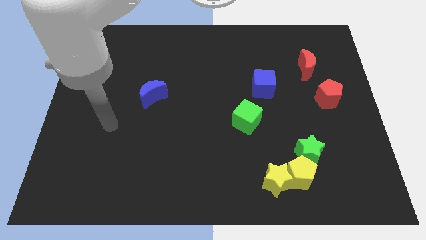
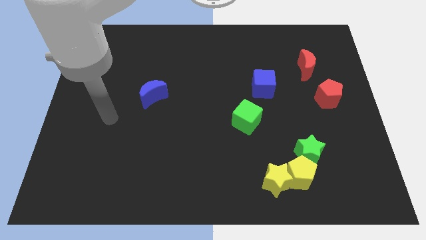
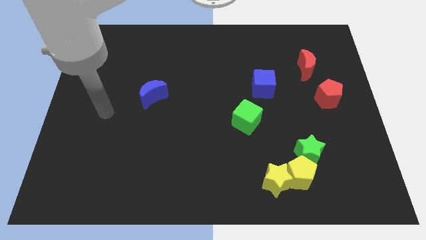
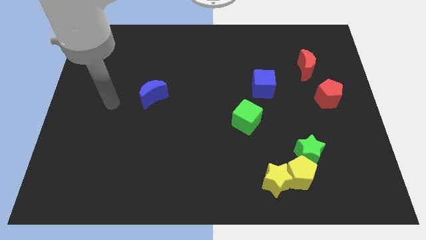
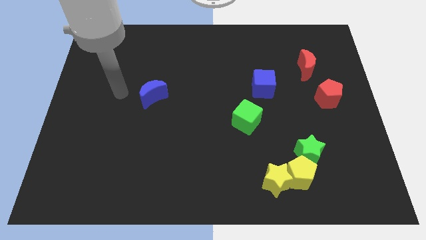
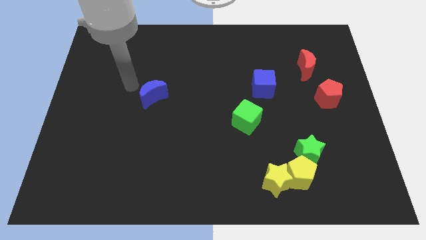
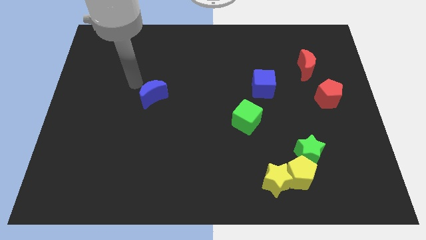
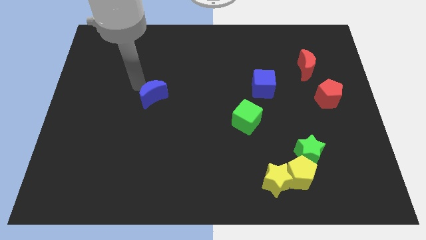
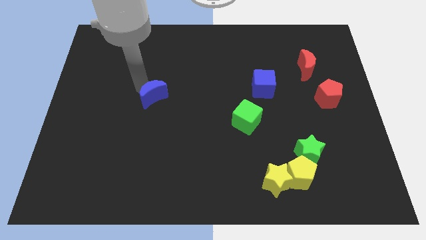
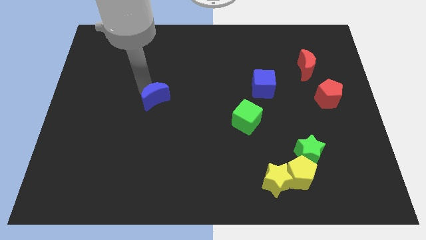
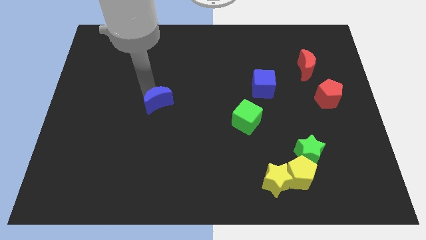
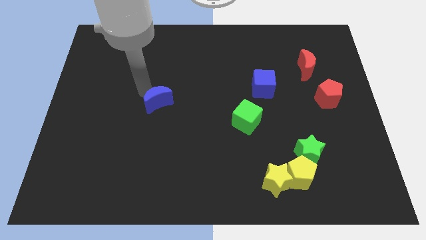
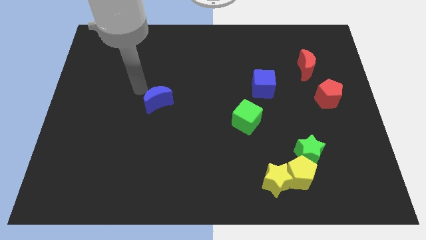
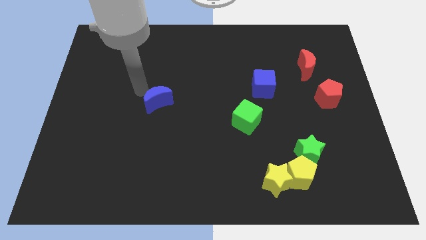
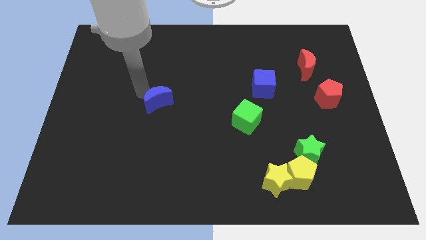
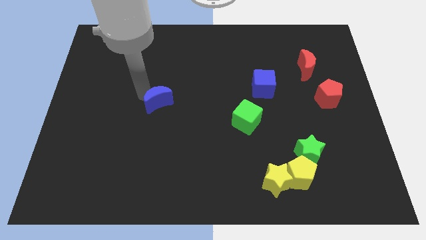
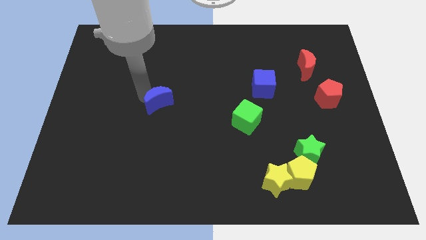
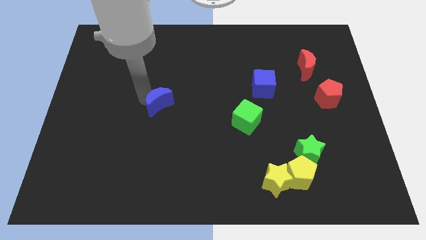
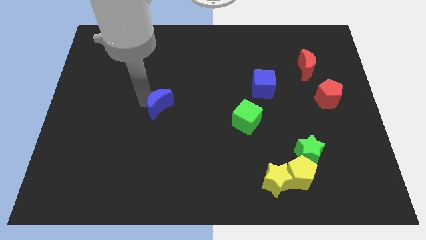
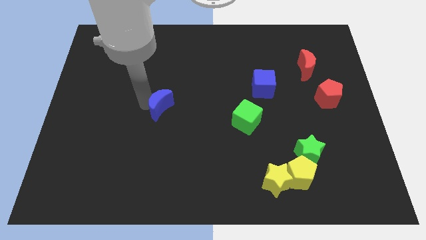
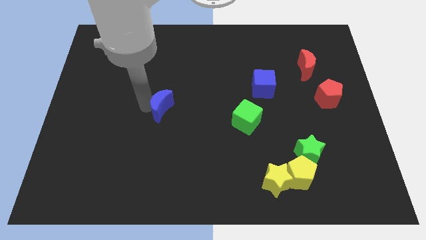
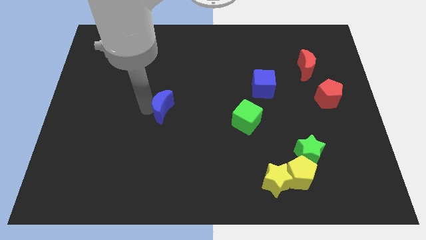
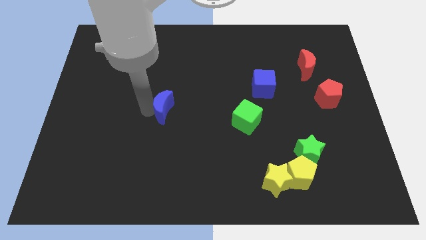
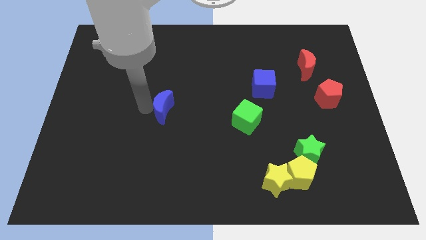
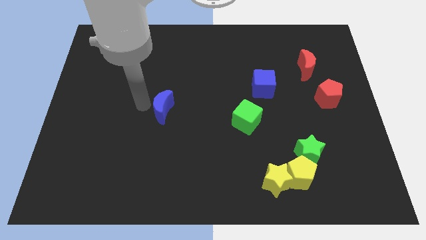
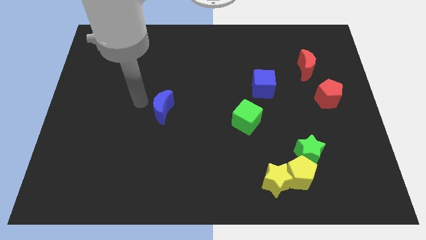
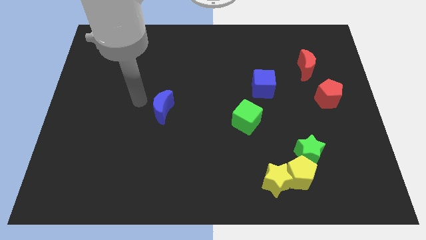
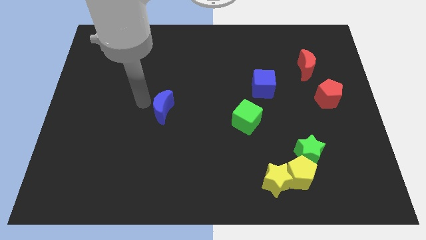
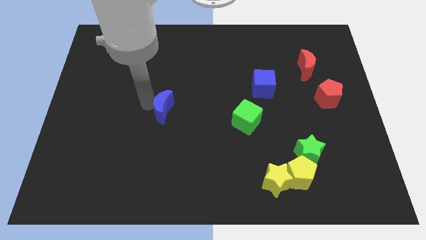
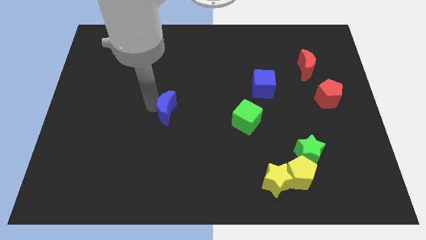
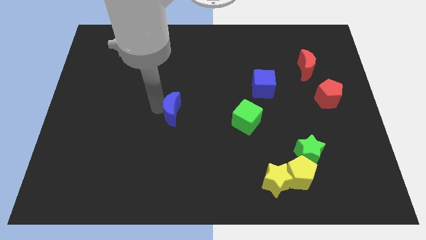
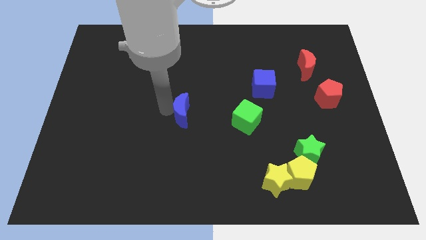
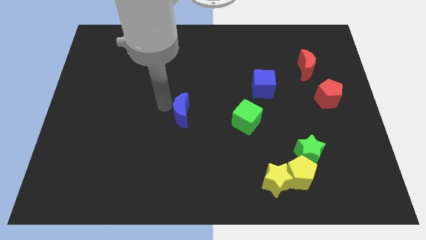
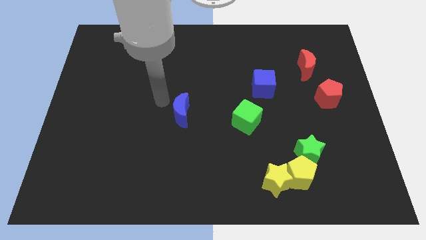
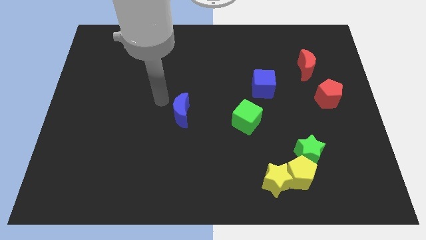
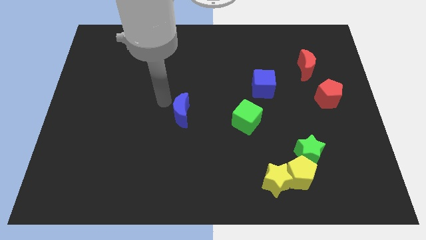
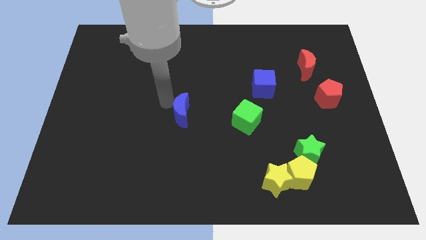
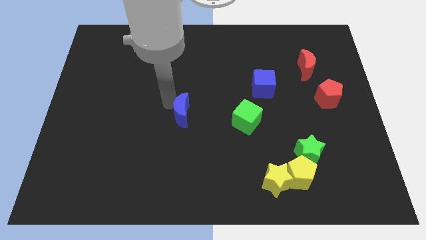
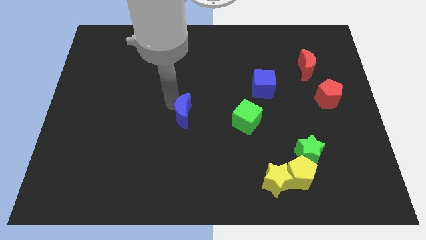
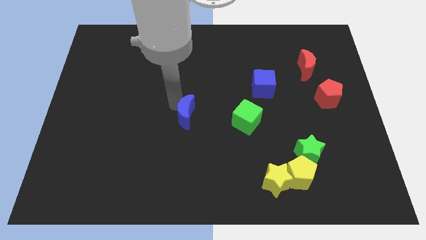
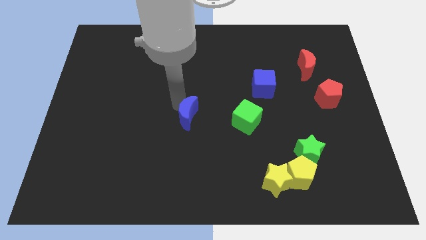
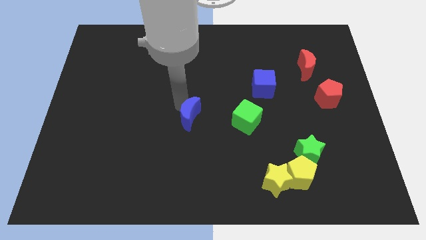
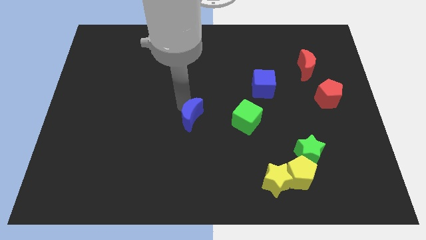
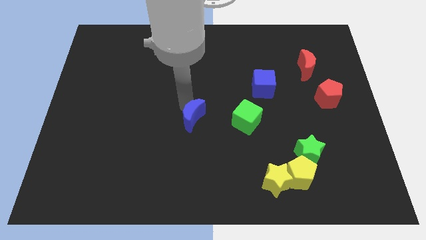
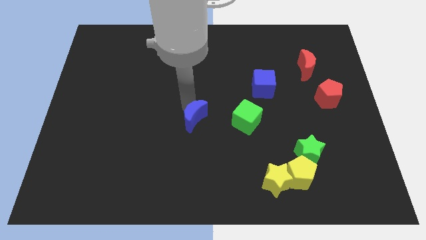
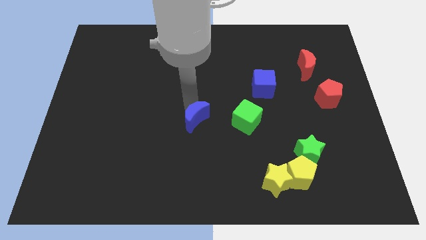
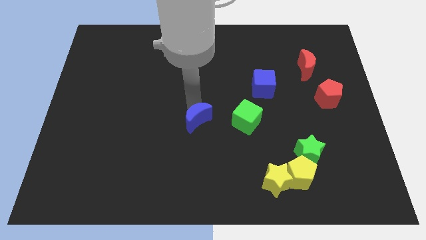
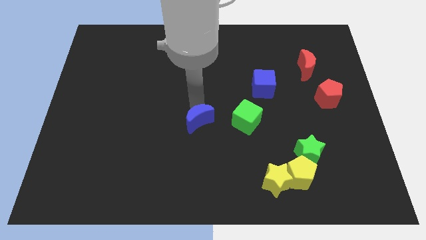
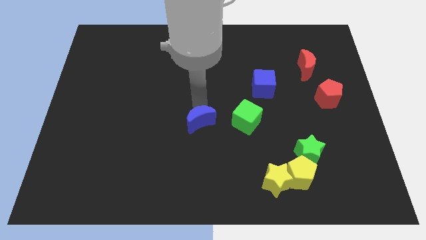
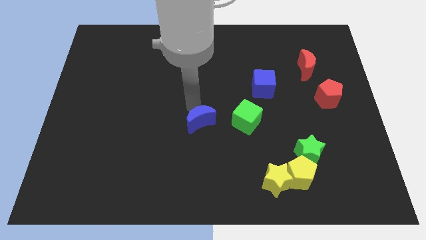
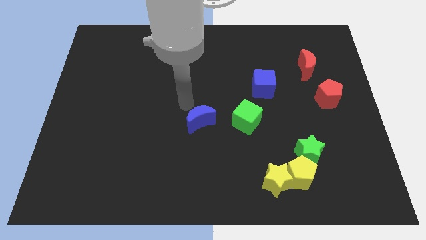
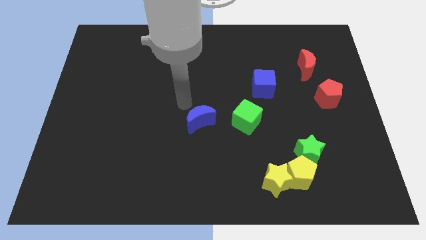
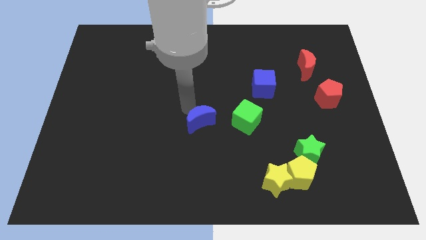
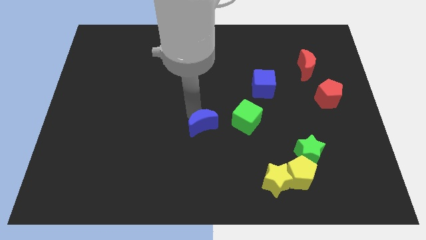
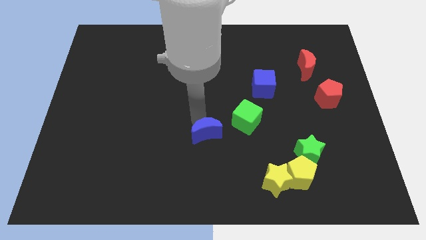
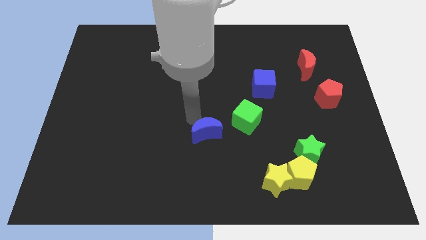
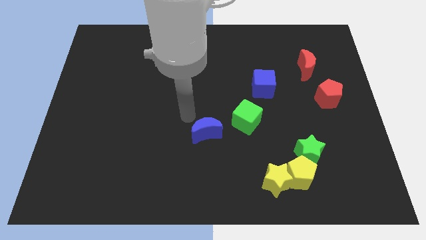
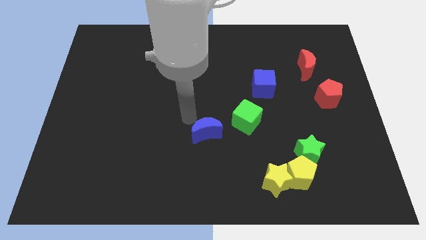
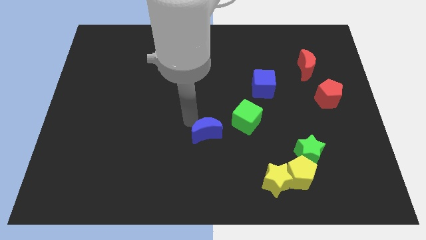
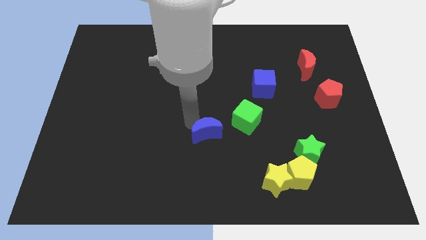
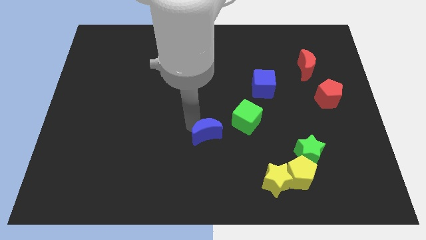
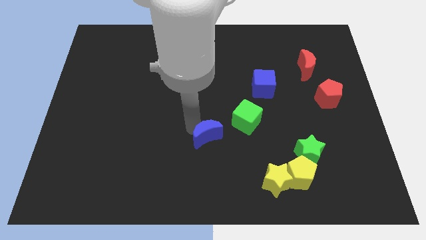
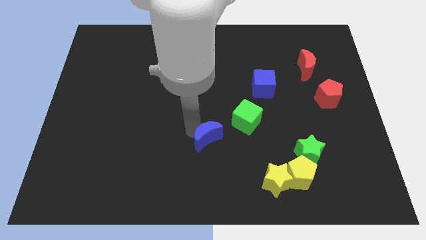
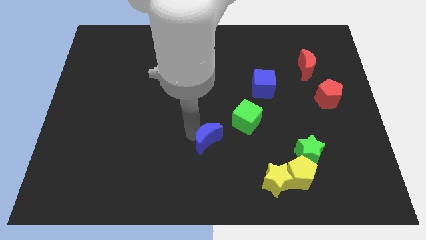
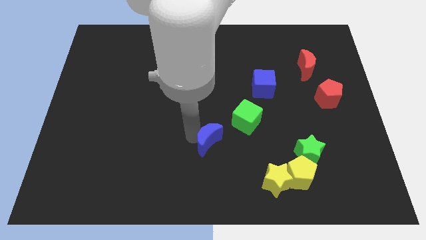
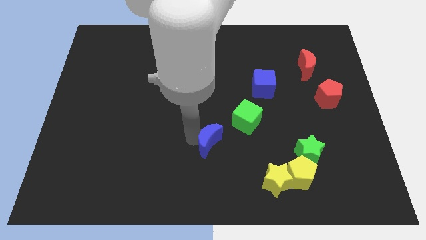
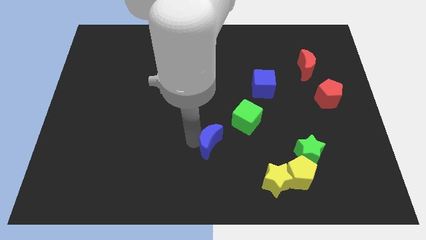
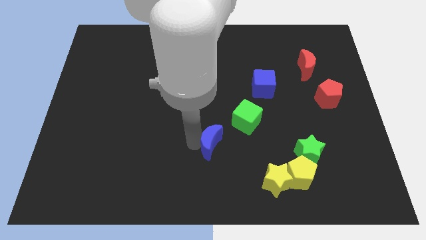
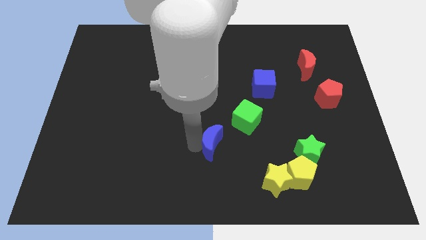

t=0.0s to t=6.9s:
move the blue moon downwards and right diagonally

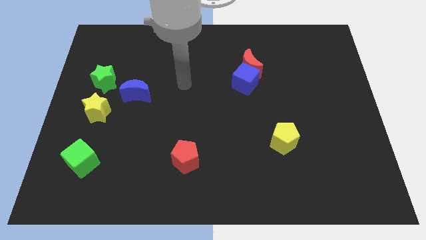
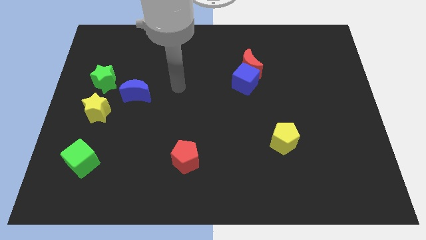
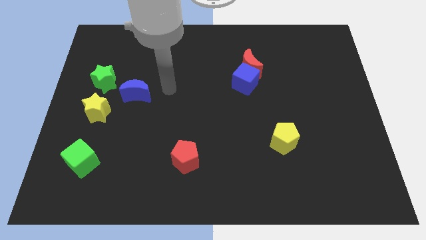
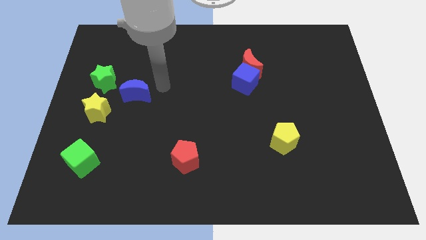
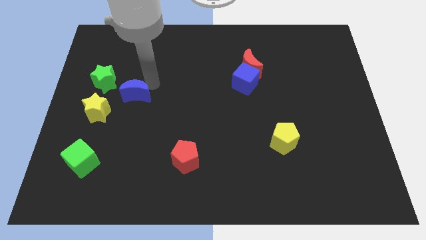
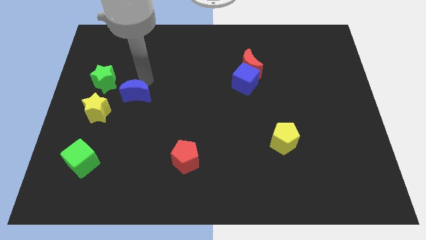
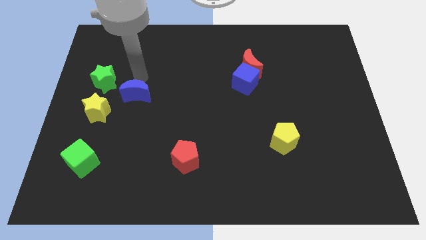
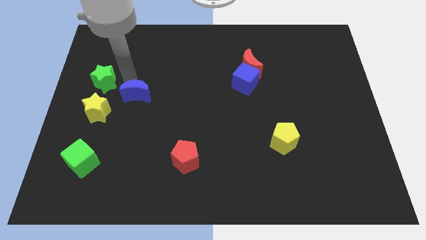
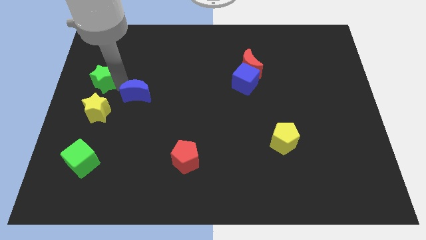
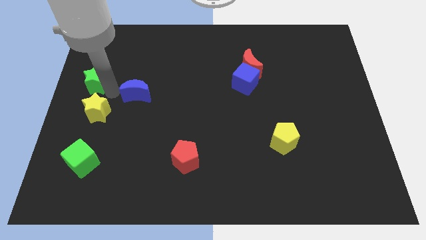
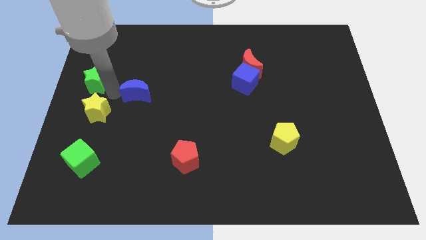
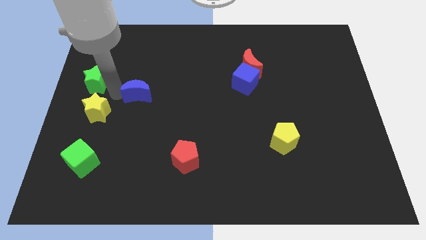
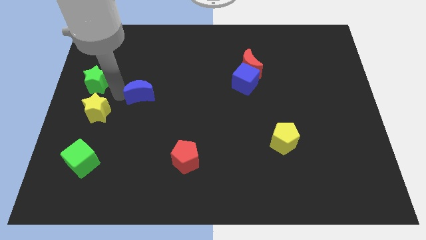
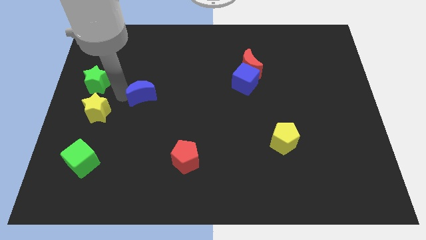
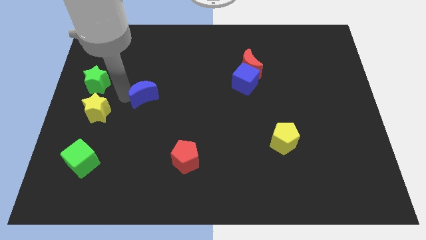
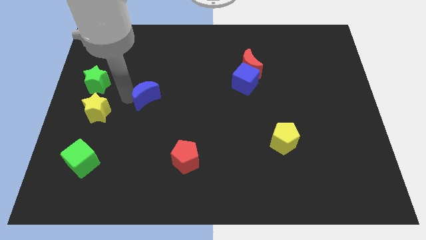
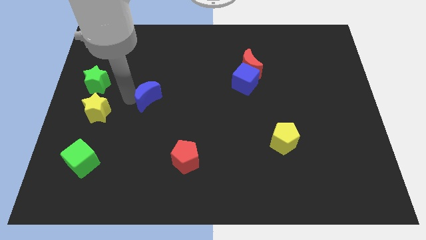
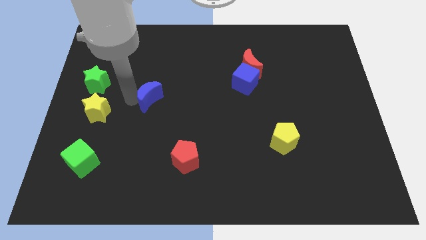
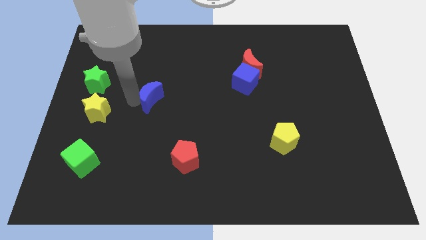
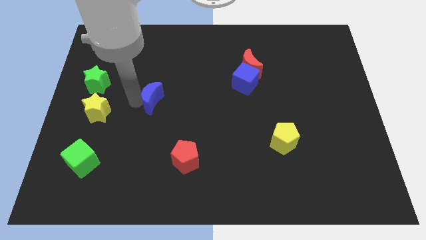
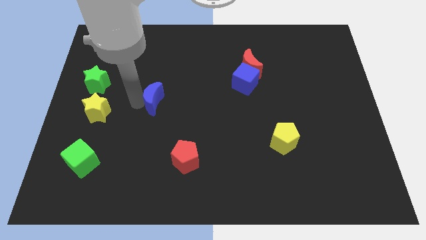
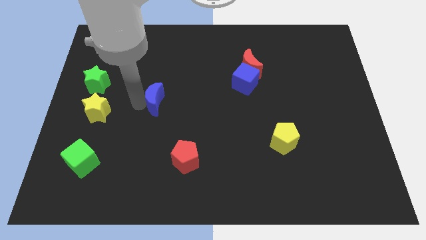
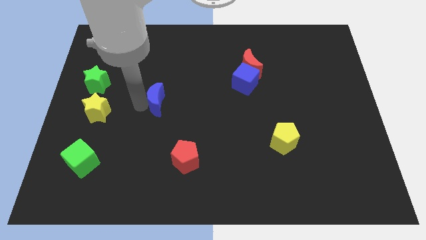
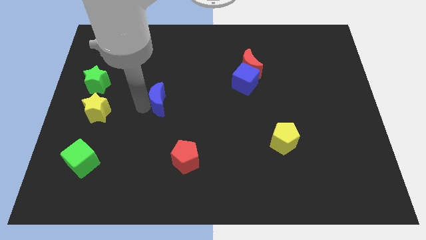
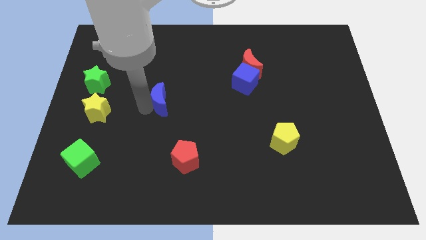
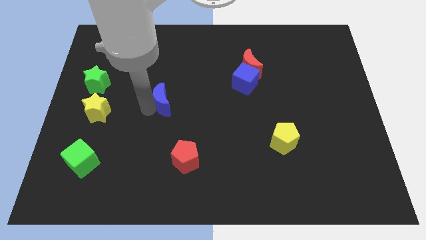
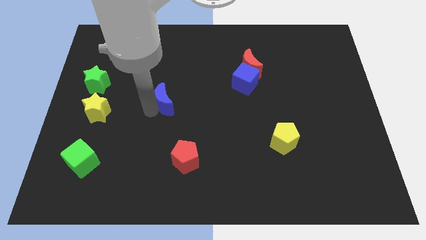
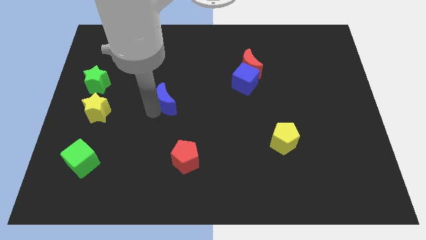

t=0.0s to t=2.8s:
slightly slide the blue moon right
